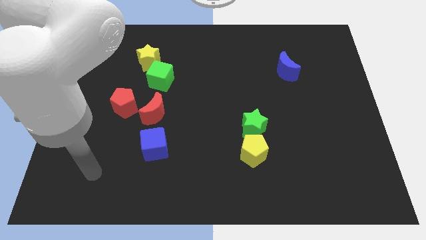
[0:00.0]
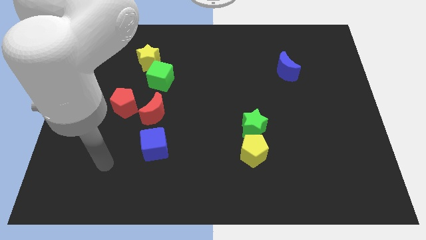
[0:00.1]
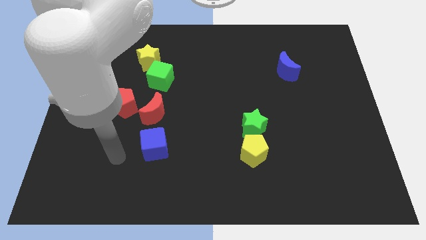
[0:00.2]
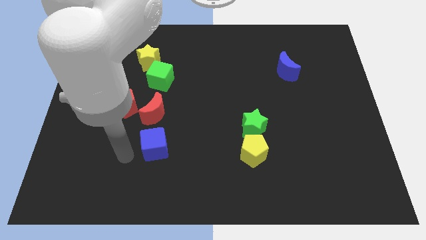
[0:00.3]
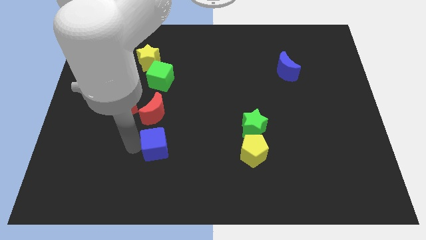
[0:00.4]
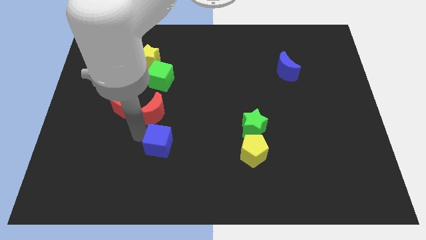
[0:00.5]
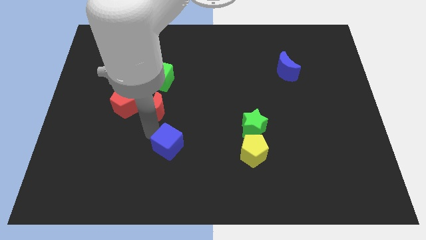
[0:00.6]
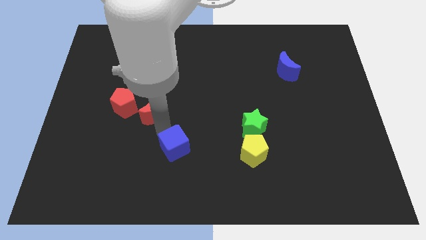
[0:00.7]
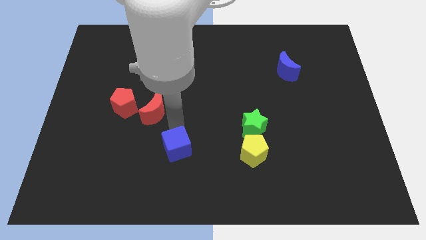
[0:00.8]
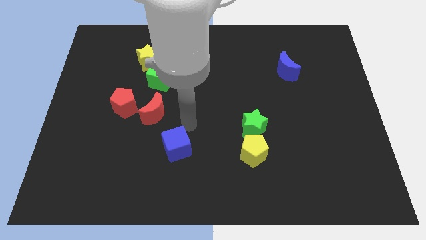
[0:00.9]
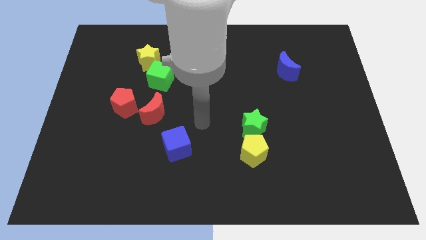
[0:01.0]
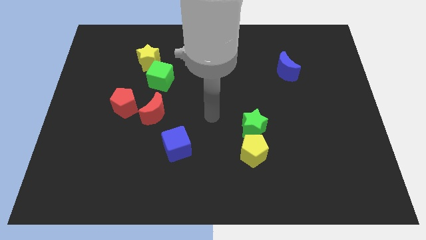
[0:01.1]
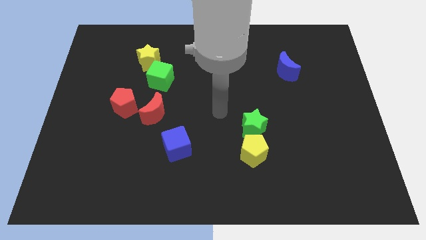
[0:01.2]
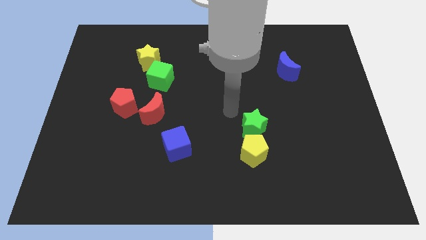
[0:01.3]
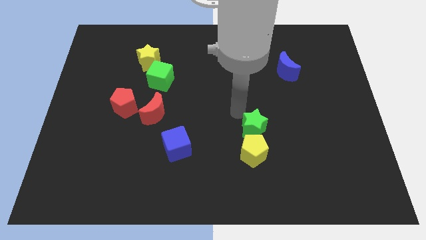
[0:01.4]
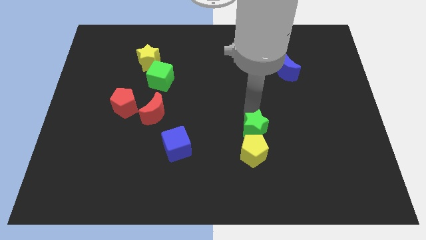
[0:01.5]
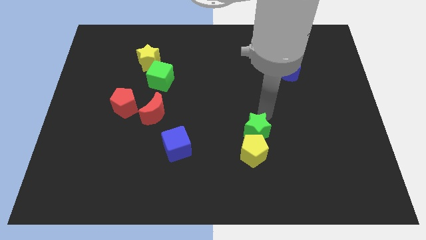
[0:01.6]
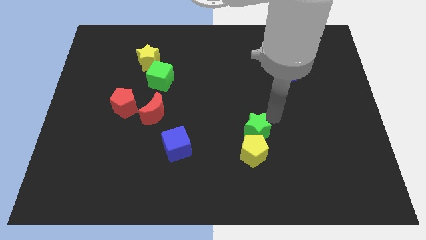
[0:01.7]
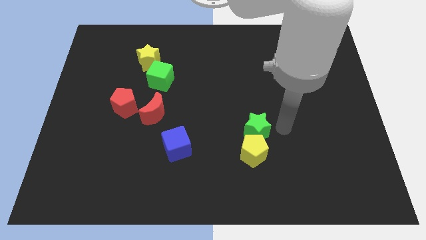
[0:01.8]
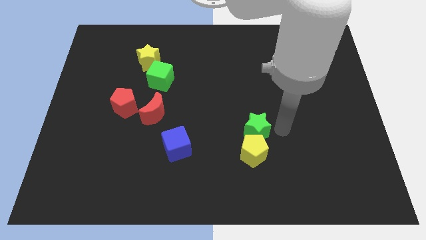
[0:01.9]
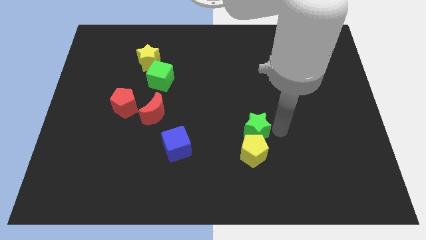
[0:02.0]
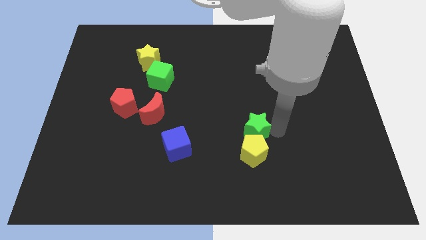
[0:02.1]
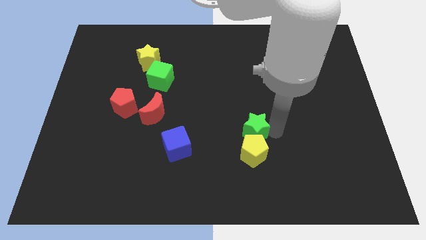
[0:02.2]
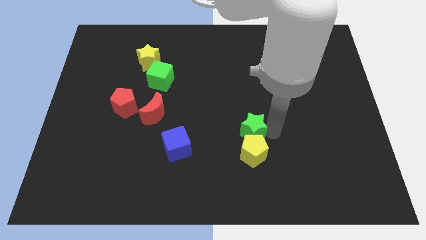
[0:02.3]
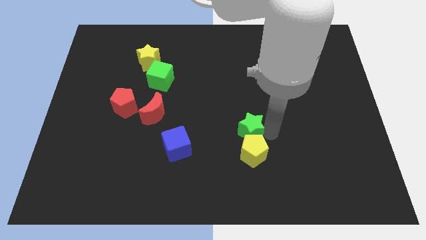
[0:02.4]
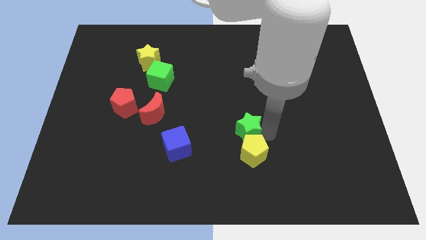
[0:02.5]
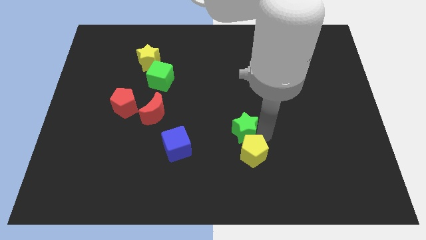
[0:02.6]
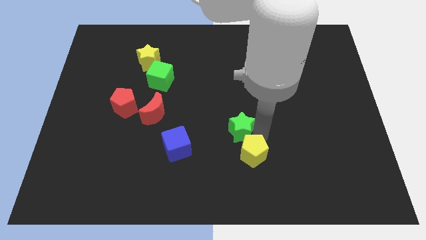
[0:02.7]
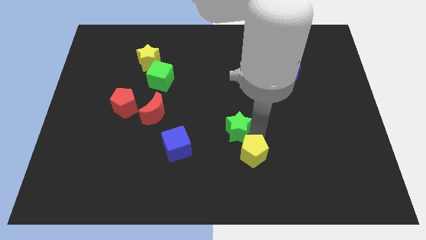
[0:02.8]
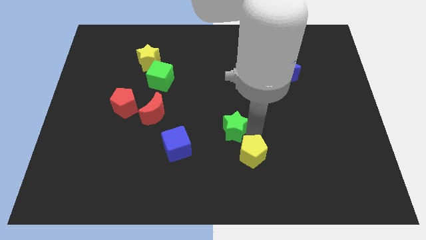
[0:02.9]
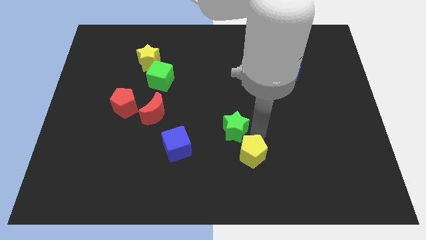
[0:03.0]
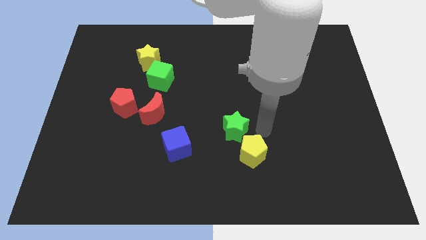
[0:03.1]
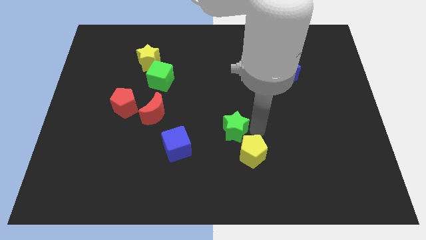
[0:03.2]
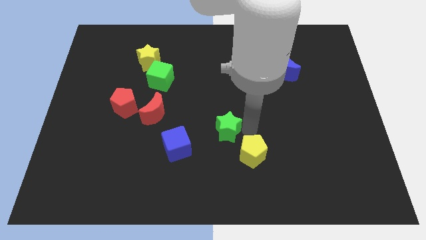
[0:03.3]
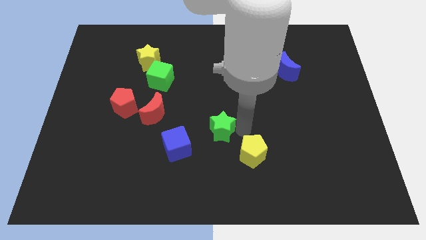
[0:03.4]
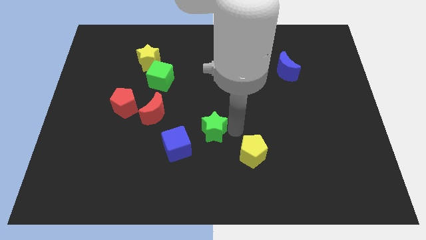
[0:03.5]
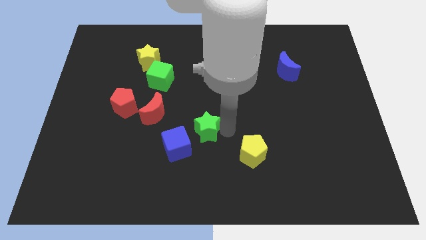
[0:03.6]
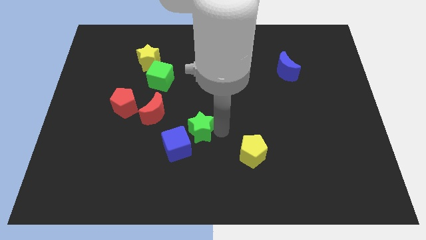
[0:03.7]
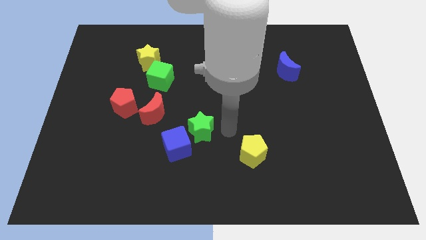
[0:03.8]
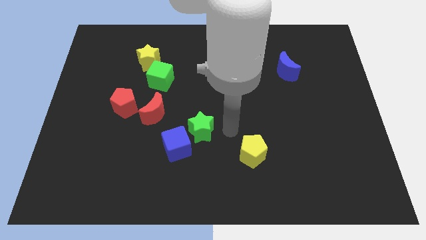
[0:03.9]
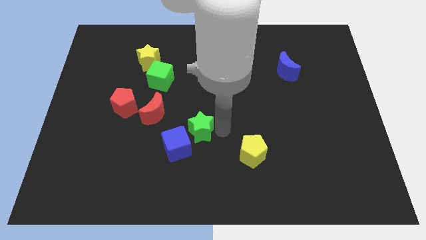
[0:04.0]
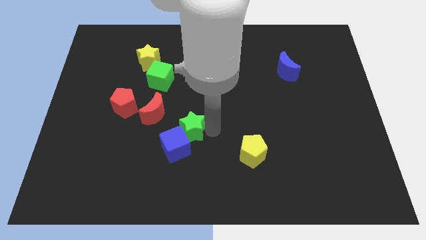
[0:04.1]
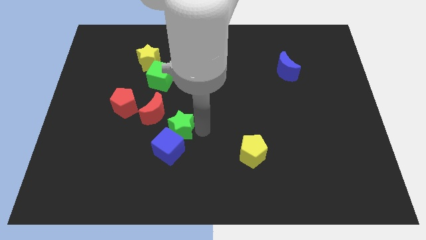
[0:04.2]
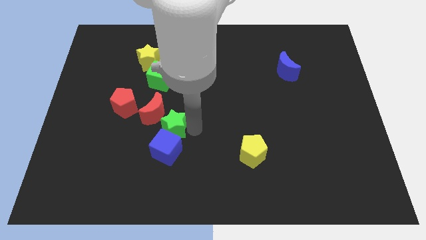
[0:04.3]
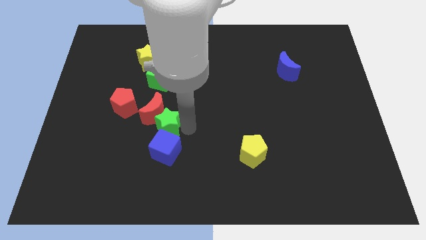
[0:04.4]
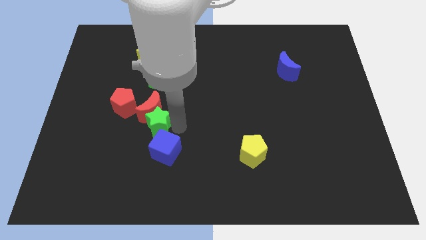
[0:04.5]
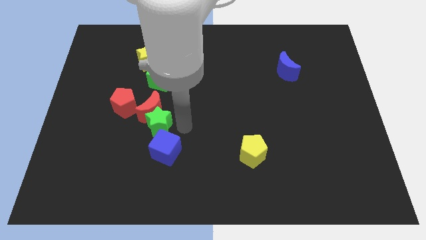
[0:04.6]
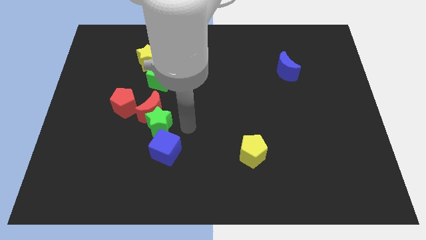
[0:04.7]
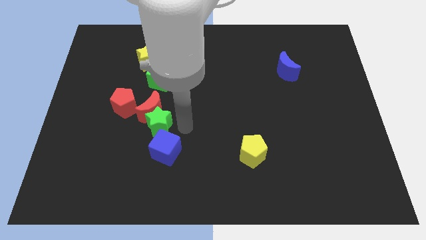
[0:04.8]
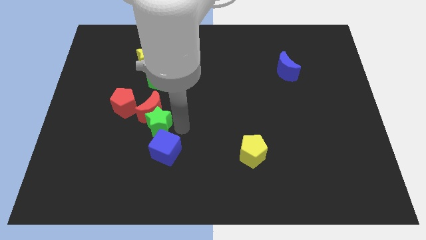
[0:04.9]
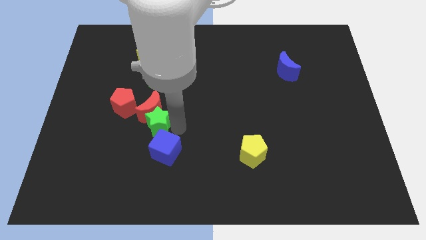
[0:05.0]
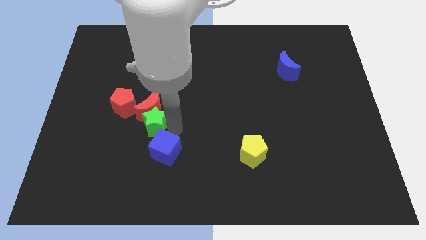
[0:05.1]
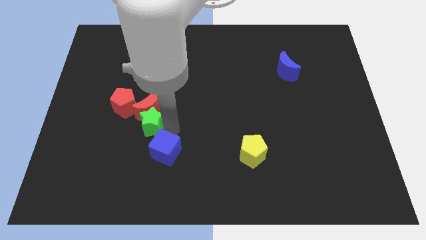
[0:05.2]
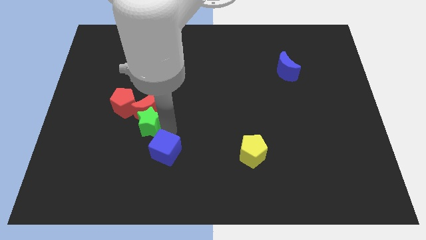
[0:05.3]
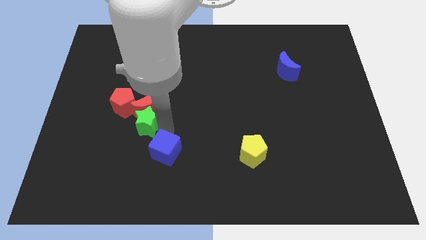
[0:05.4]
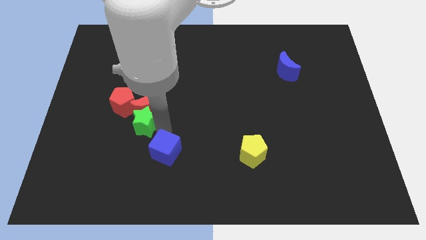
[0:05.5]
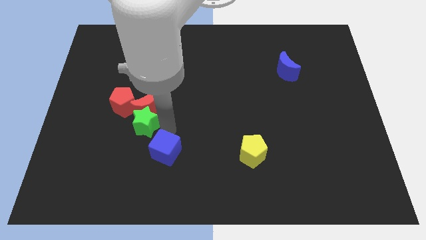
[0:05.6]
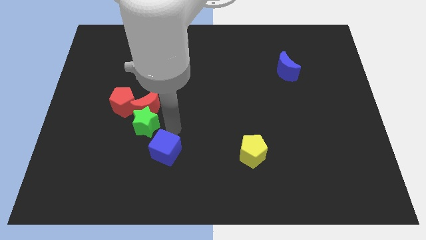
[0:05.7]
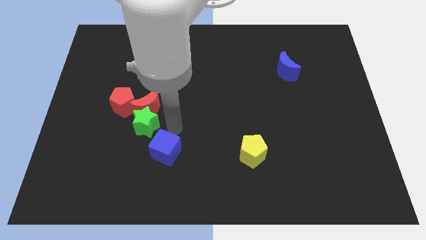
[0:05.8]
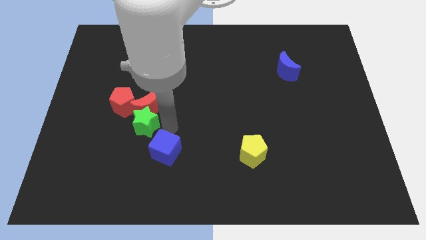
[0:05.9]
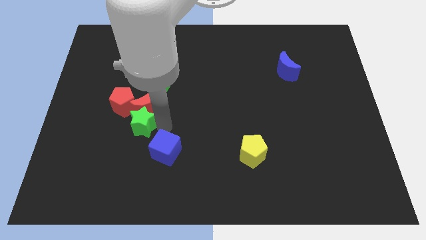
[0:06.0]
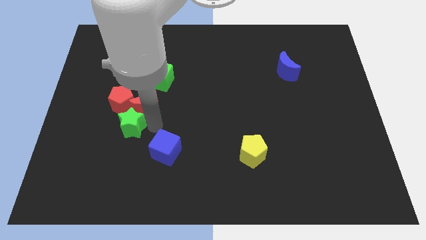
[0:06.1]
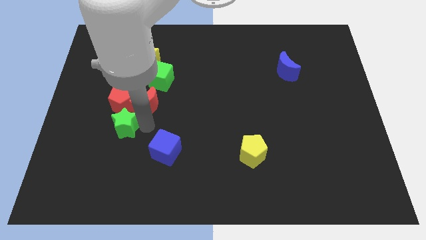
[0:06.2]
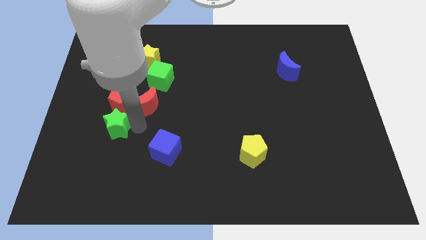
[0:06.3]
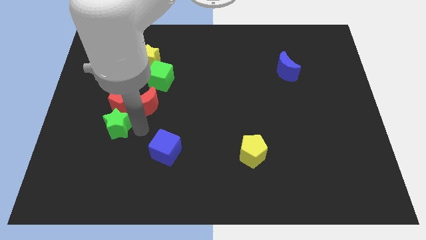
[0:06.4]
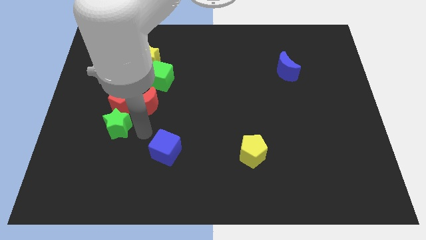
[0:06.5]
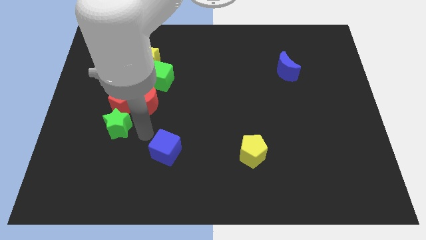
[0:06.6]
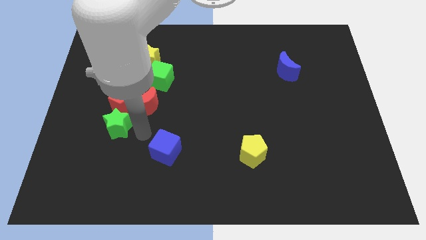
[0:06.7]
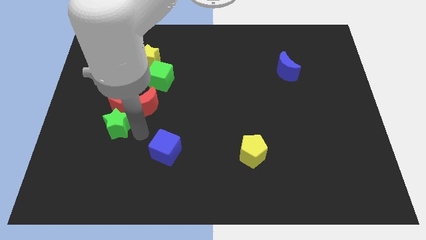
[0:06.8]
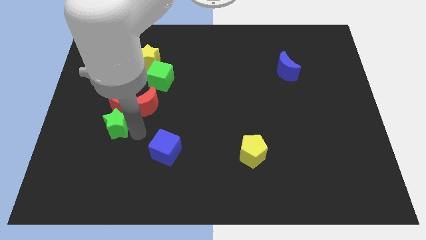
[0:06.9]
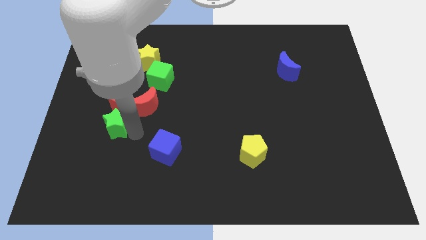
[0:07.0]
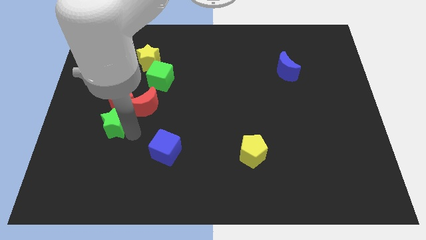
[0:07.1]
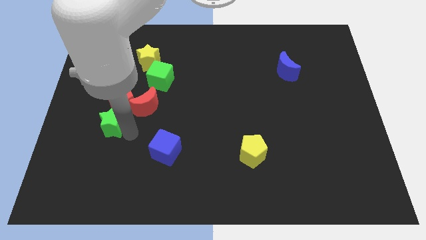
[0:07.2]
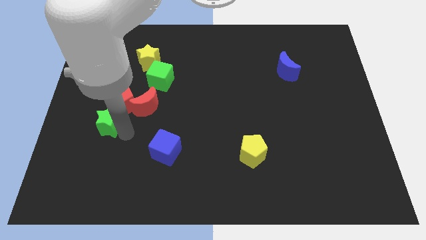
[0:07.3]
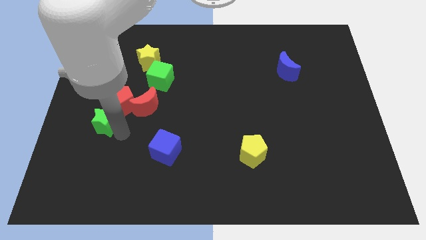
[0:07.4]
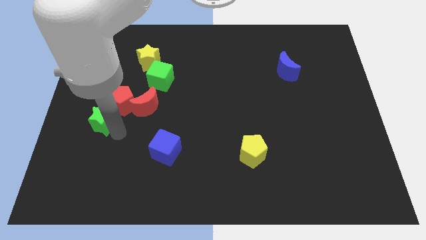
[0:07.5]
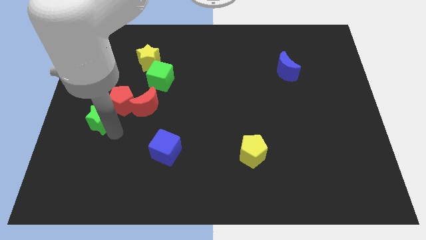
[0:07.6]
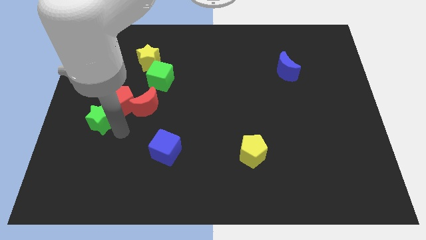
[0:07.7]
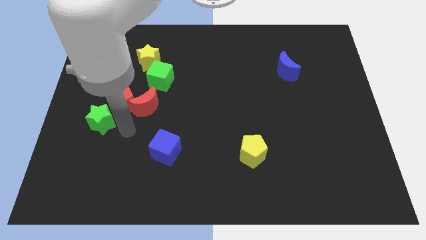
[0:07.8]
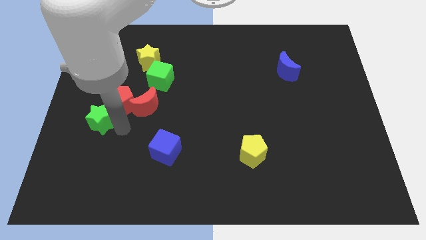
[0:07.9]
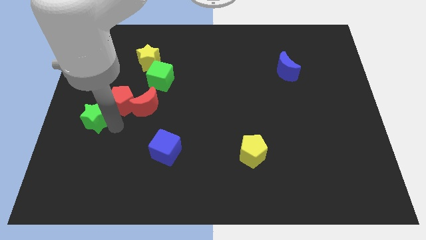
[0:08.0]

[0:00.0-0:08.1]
push the green star to the center left
